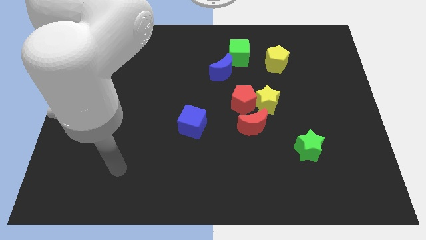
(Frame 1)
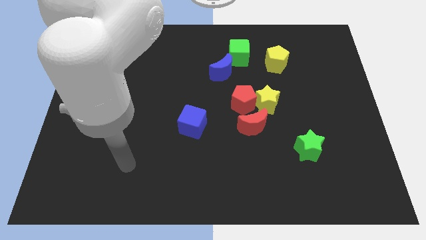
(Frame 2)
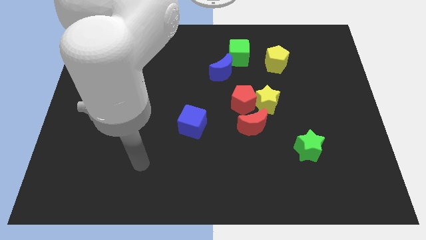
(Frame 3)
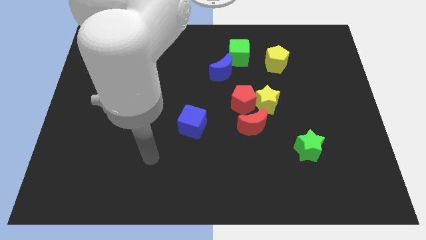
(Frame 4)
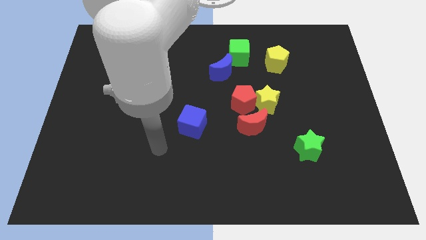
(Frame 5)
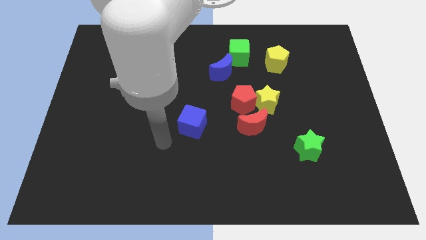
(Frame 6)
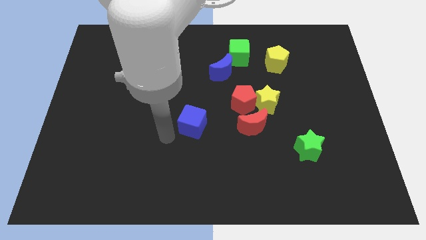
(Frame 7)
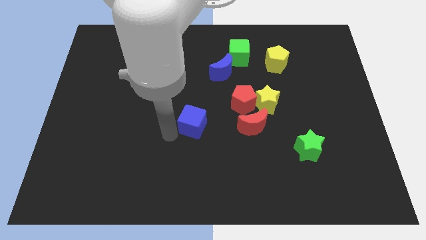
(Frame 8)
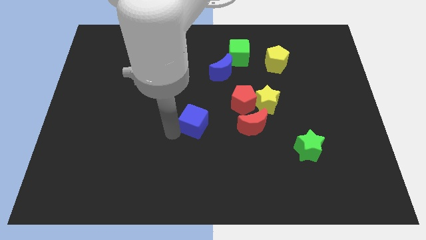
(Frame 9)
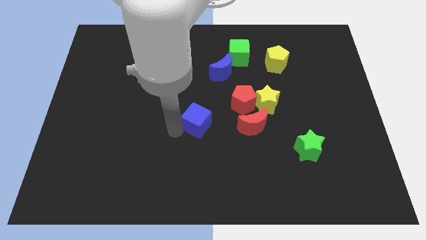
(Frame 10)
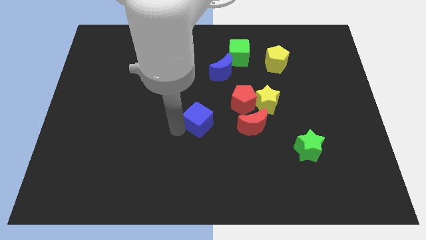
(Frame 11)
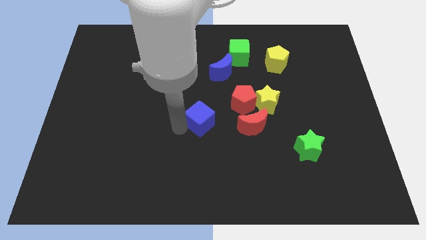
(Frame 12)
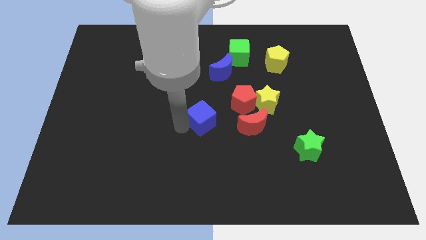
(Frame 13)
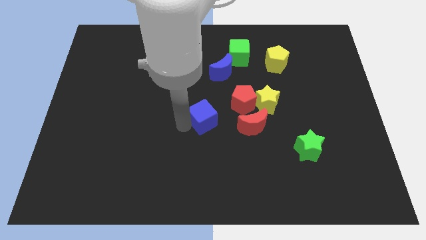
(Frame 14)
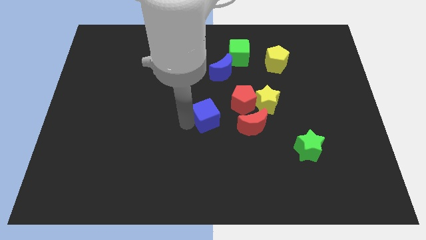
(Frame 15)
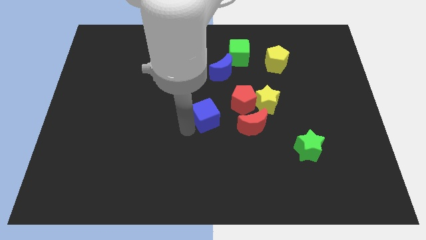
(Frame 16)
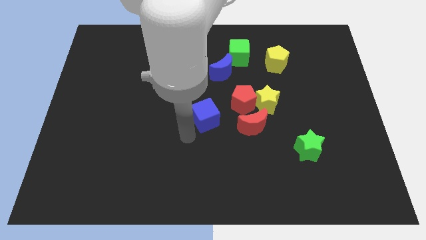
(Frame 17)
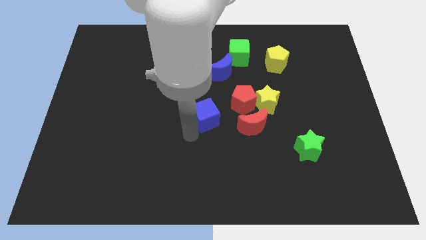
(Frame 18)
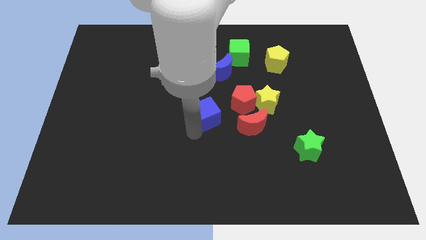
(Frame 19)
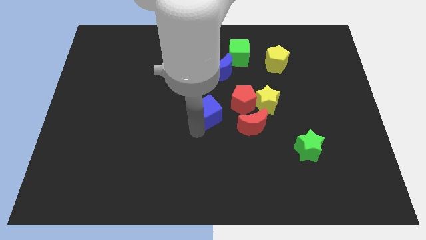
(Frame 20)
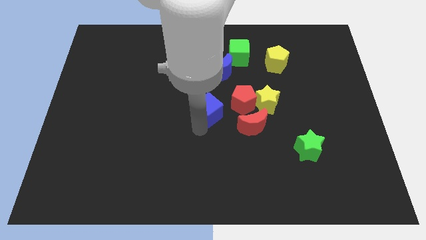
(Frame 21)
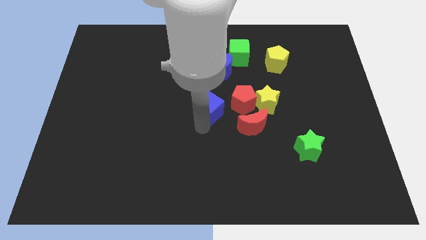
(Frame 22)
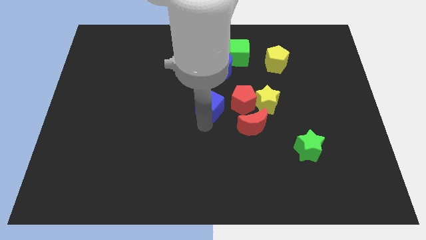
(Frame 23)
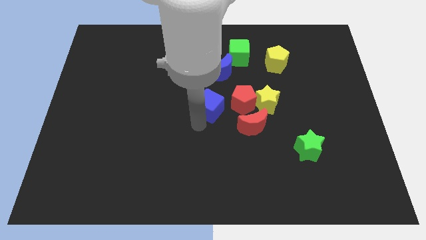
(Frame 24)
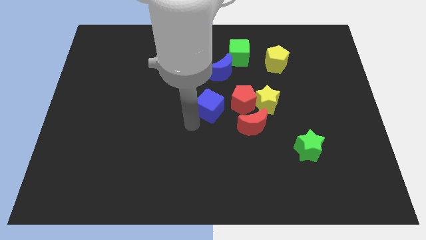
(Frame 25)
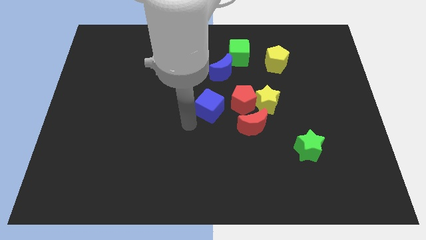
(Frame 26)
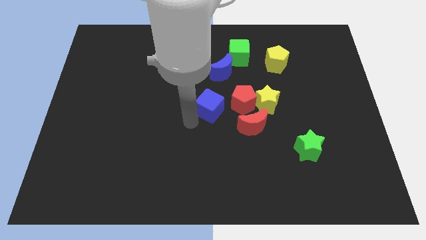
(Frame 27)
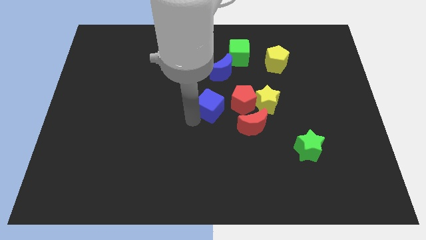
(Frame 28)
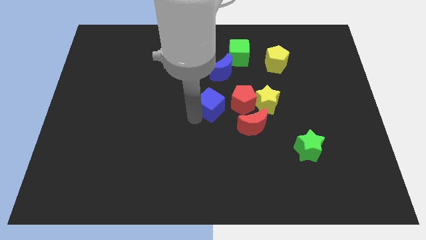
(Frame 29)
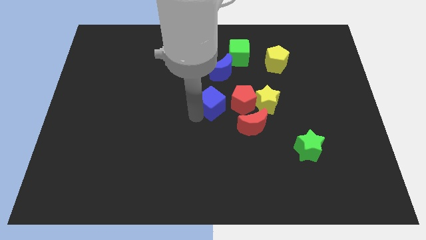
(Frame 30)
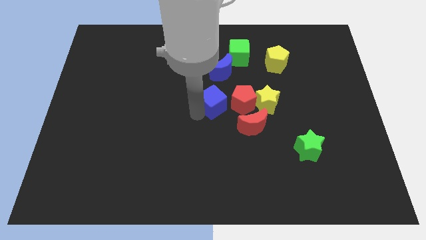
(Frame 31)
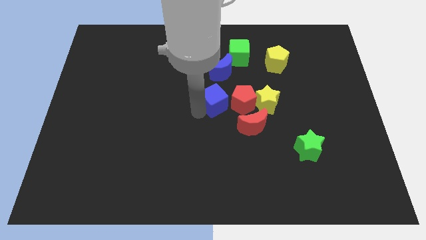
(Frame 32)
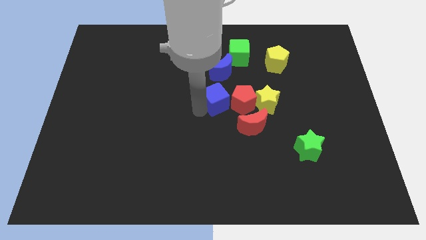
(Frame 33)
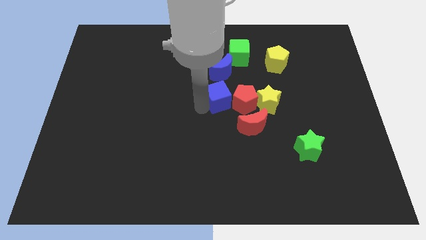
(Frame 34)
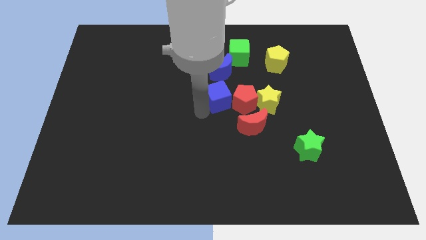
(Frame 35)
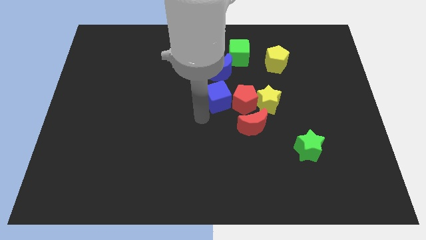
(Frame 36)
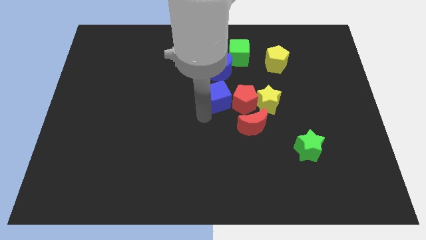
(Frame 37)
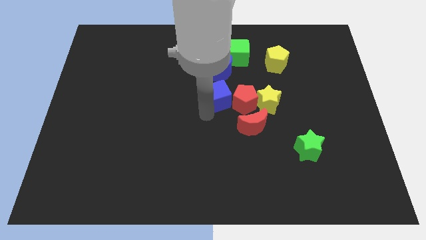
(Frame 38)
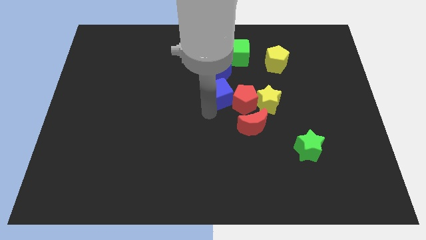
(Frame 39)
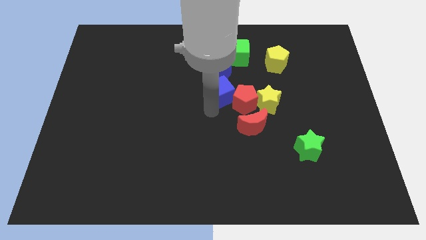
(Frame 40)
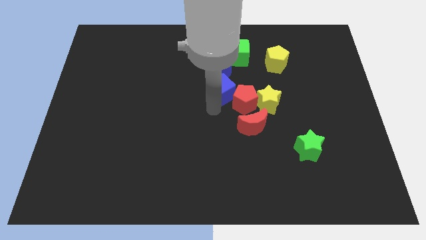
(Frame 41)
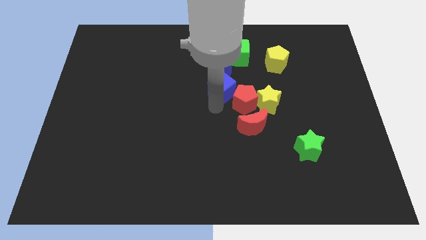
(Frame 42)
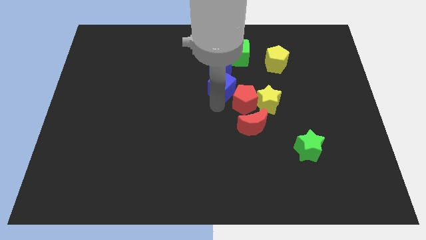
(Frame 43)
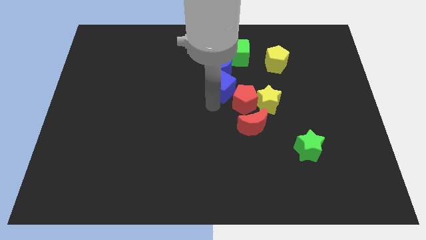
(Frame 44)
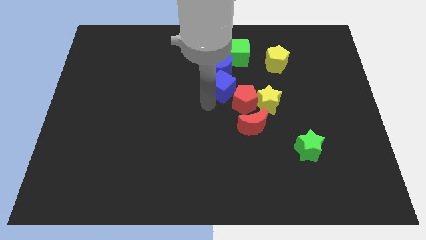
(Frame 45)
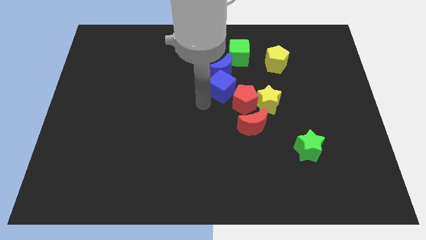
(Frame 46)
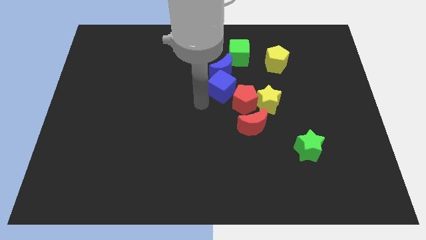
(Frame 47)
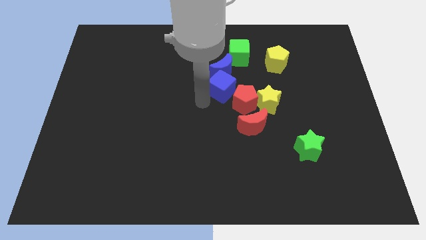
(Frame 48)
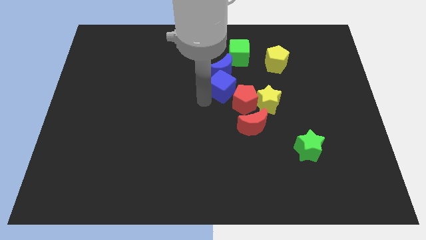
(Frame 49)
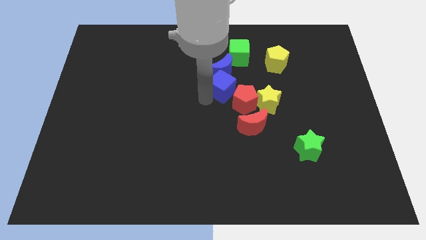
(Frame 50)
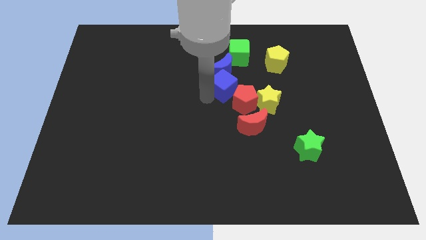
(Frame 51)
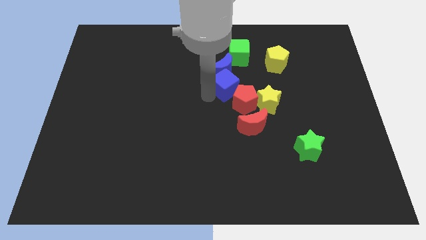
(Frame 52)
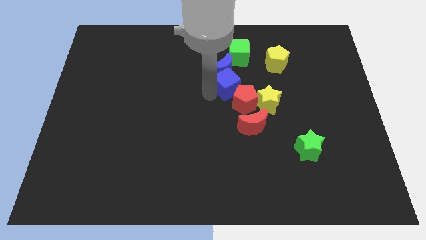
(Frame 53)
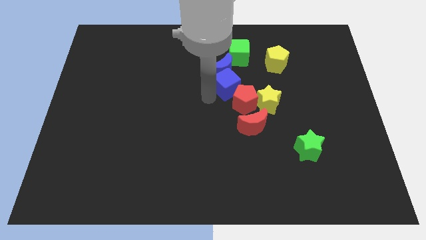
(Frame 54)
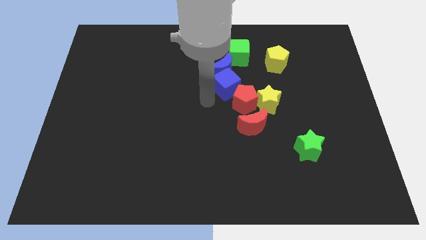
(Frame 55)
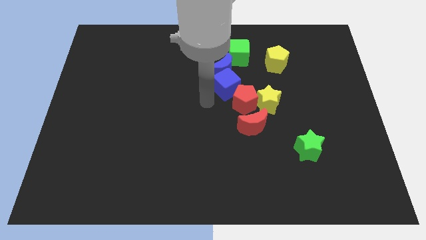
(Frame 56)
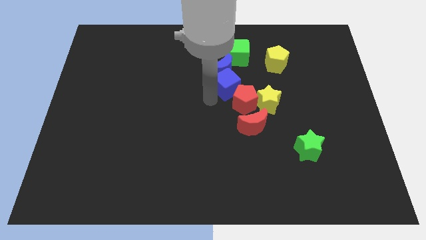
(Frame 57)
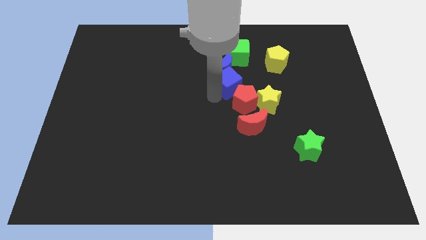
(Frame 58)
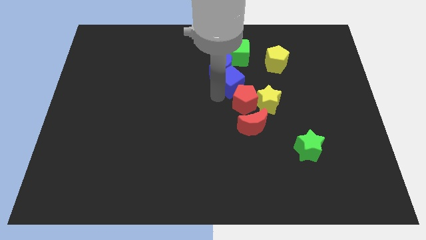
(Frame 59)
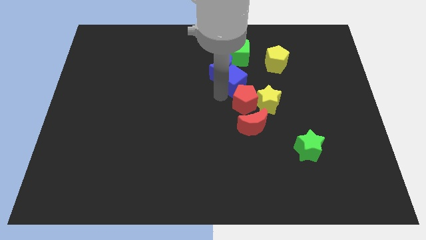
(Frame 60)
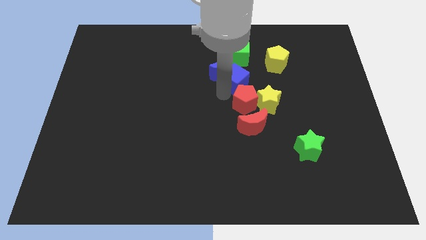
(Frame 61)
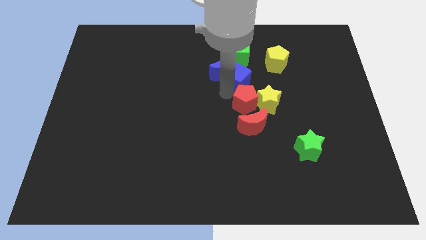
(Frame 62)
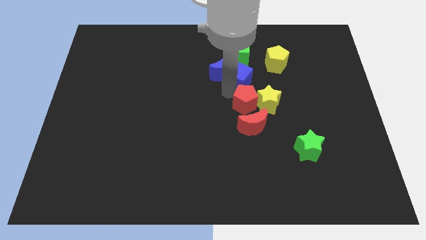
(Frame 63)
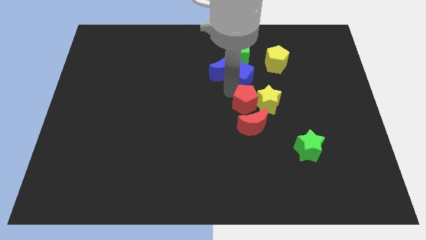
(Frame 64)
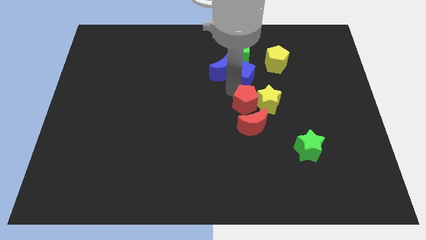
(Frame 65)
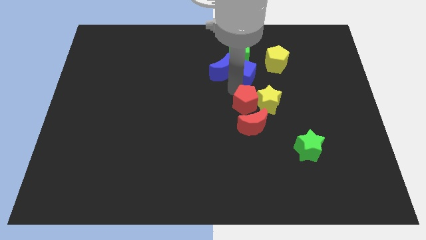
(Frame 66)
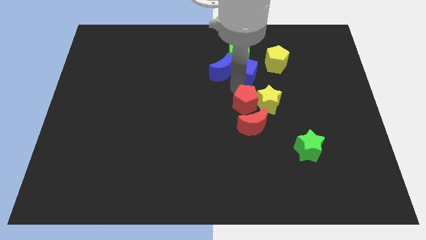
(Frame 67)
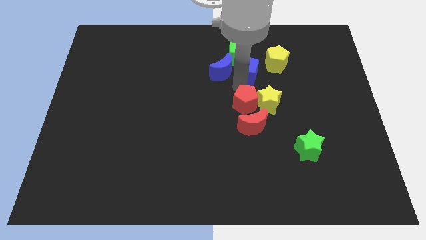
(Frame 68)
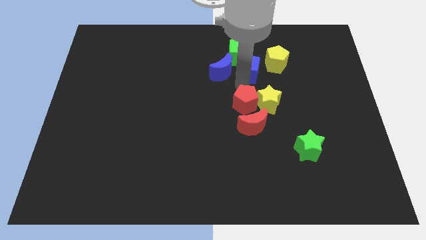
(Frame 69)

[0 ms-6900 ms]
push the blue cube next to the green cube

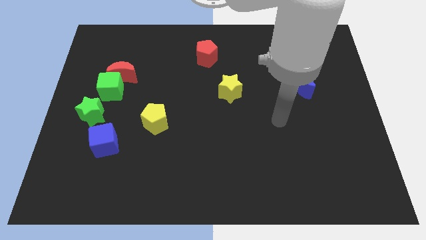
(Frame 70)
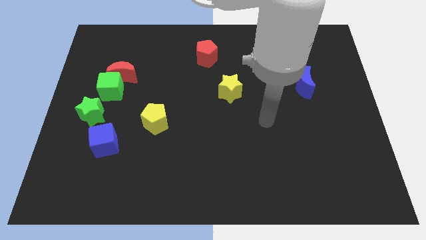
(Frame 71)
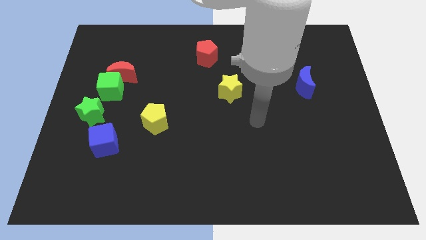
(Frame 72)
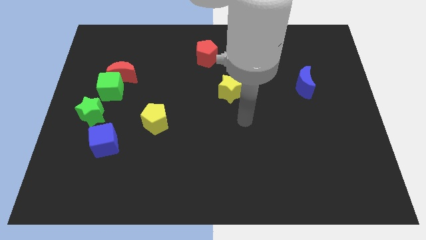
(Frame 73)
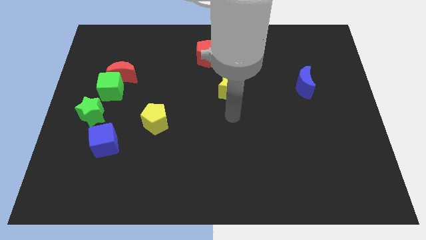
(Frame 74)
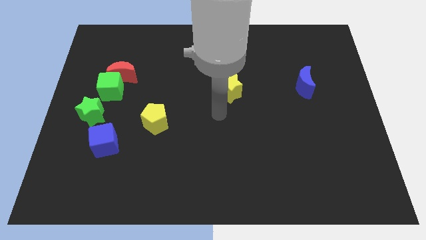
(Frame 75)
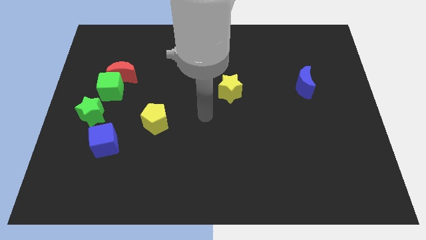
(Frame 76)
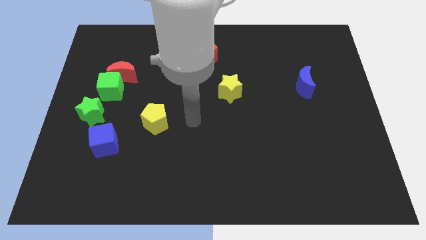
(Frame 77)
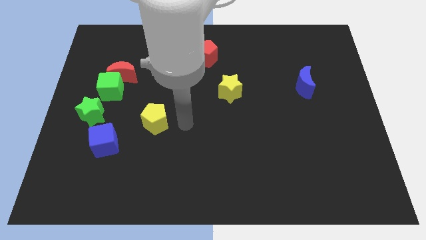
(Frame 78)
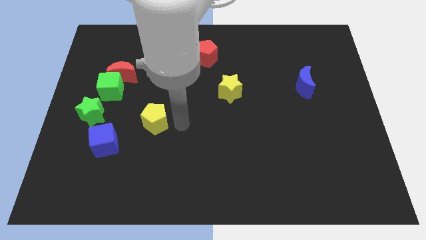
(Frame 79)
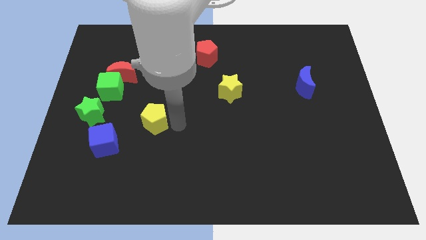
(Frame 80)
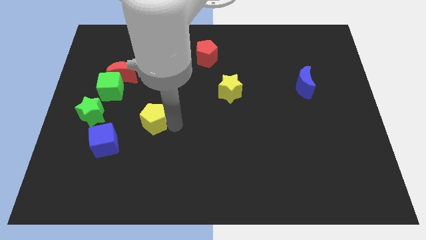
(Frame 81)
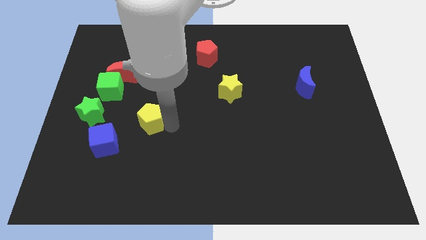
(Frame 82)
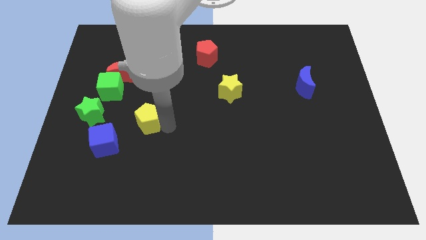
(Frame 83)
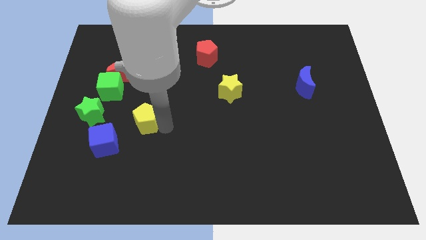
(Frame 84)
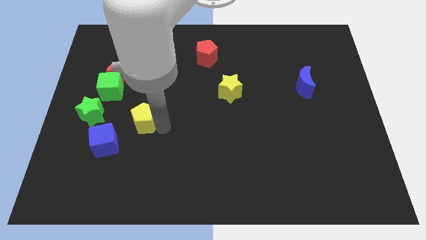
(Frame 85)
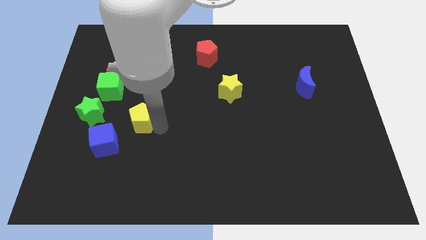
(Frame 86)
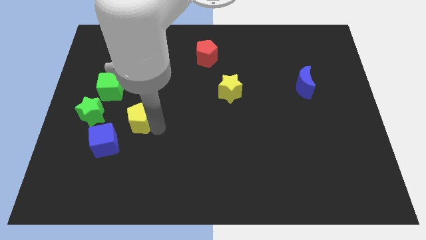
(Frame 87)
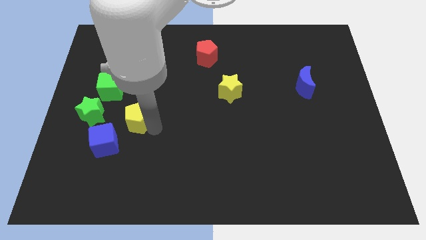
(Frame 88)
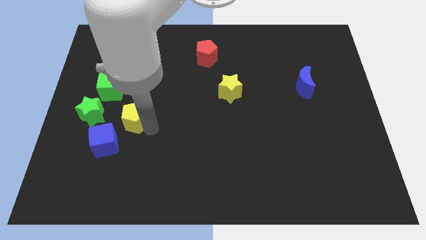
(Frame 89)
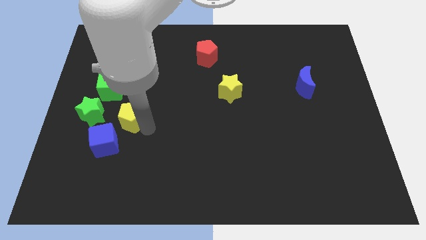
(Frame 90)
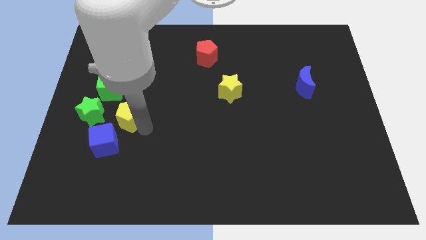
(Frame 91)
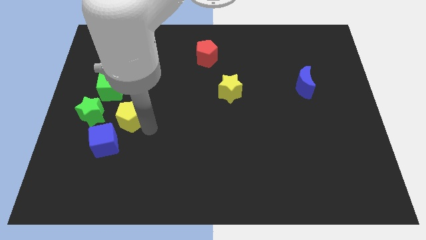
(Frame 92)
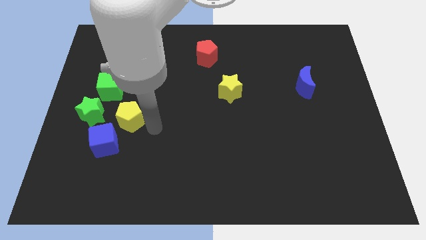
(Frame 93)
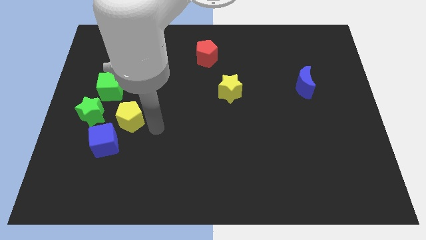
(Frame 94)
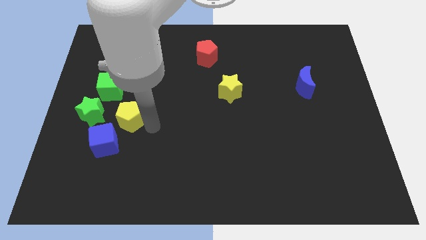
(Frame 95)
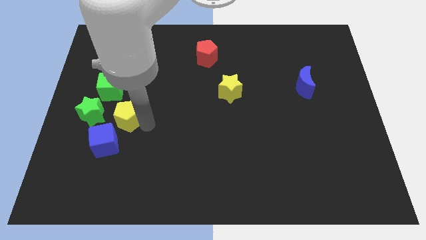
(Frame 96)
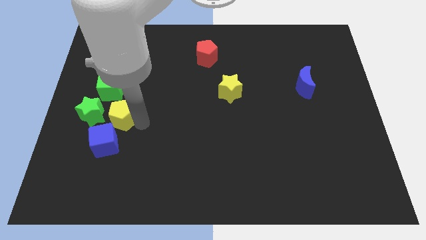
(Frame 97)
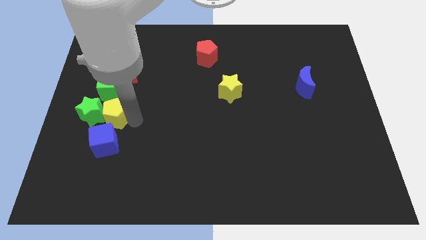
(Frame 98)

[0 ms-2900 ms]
push the yellow pentagon to the green star
